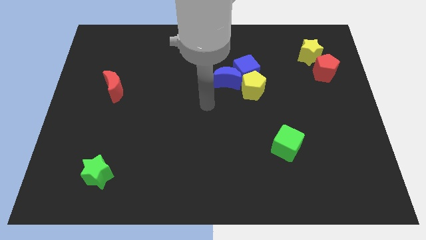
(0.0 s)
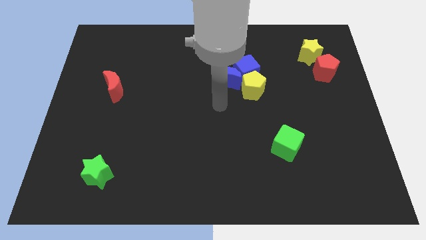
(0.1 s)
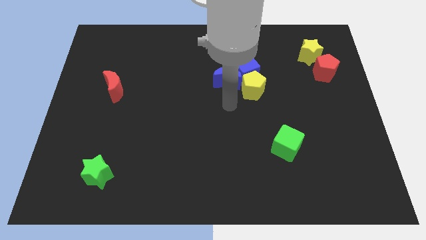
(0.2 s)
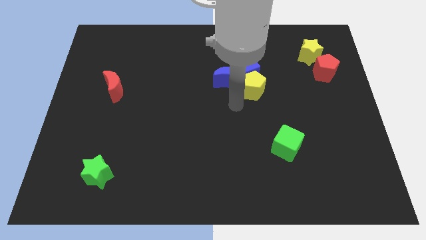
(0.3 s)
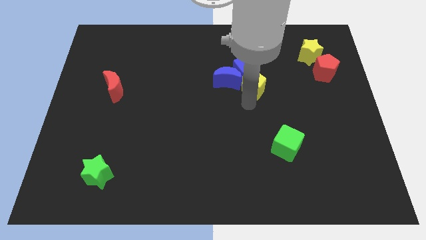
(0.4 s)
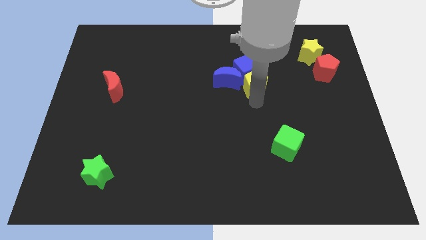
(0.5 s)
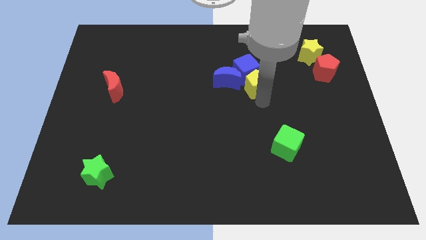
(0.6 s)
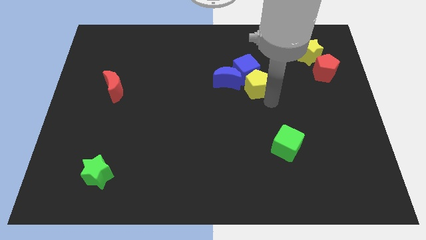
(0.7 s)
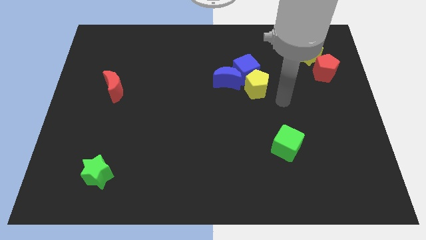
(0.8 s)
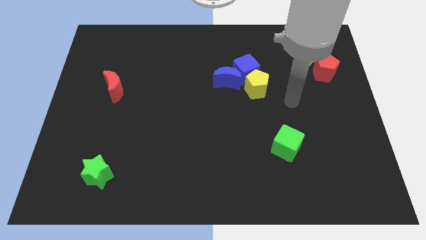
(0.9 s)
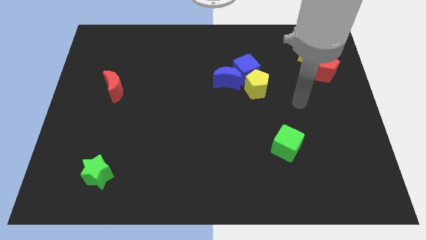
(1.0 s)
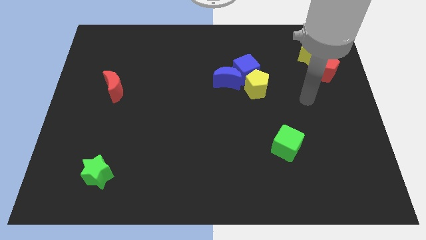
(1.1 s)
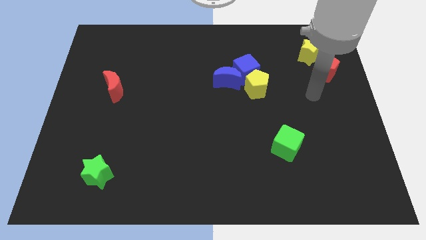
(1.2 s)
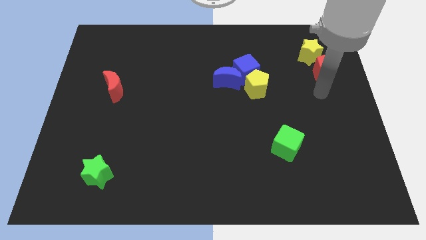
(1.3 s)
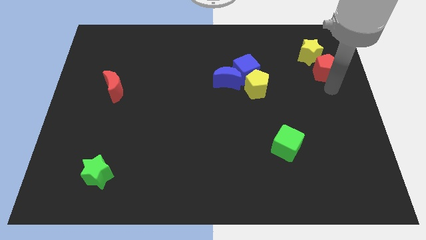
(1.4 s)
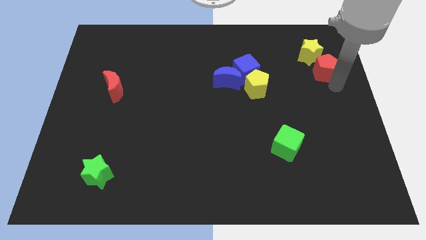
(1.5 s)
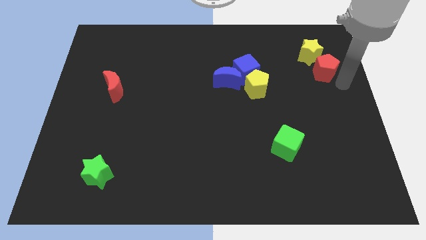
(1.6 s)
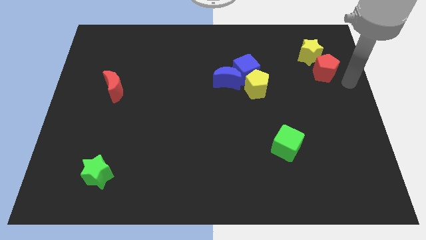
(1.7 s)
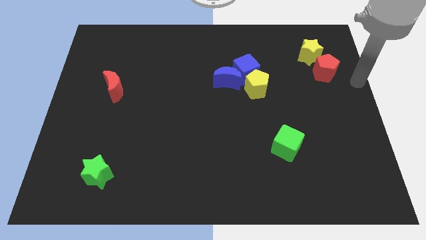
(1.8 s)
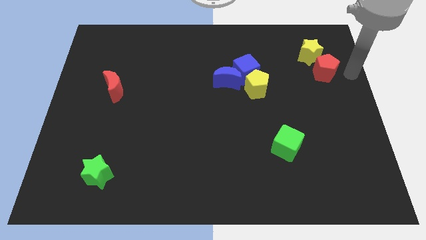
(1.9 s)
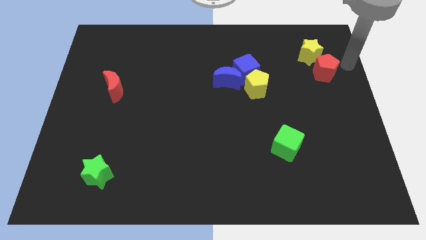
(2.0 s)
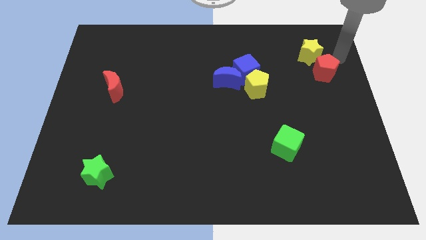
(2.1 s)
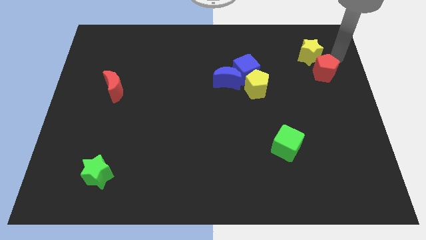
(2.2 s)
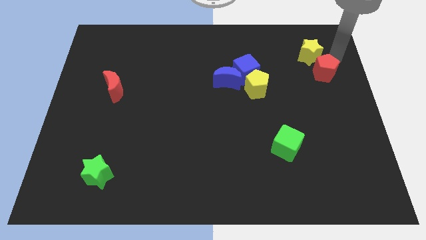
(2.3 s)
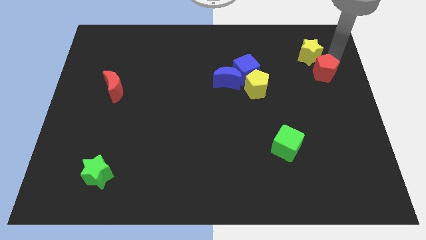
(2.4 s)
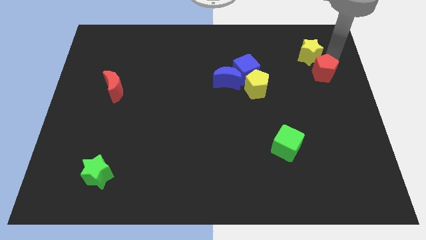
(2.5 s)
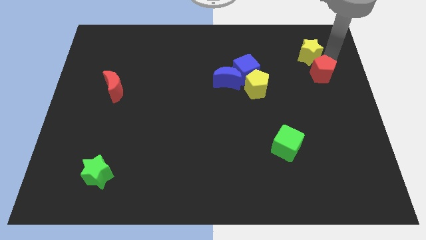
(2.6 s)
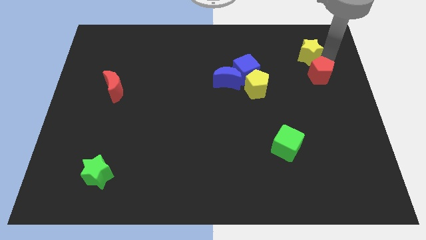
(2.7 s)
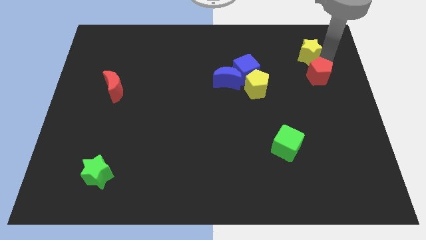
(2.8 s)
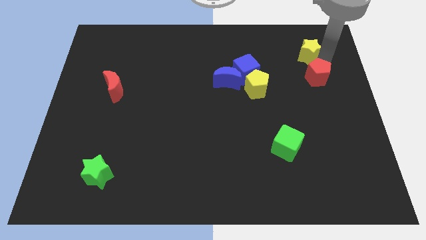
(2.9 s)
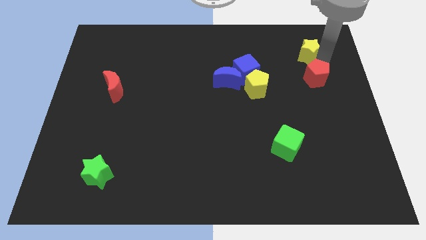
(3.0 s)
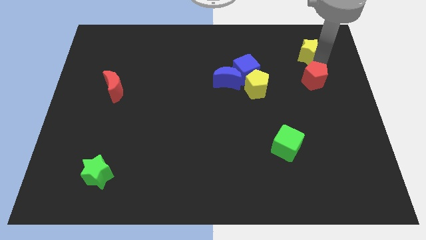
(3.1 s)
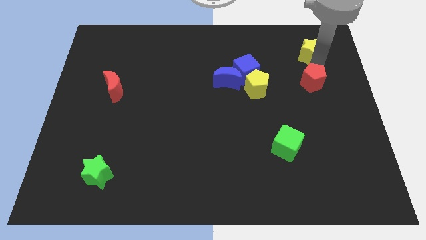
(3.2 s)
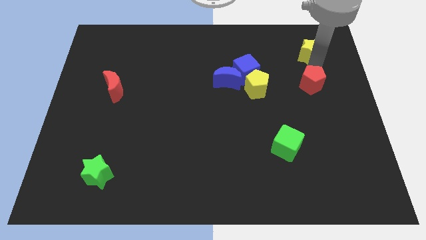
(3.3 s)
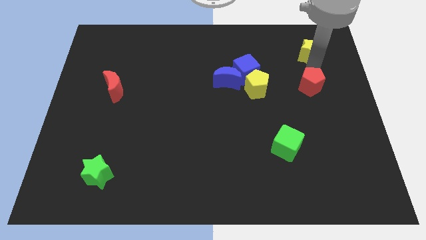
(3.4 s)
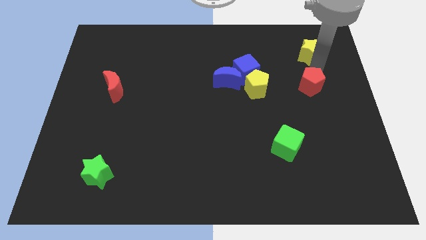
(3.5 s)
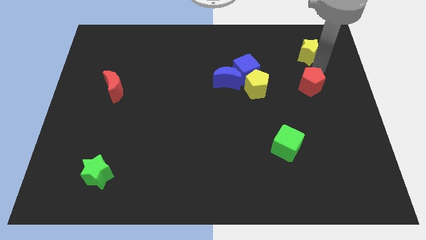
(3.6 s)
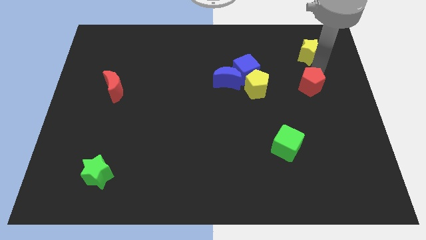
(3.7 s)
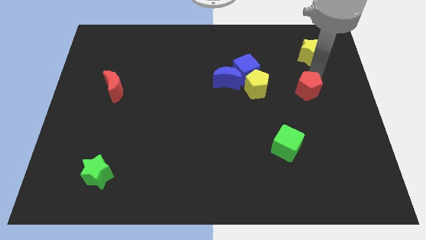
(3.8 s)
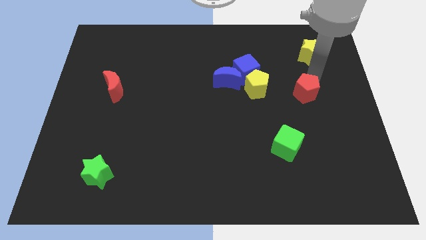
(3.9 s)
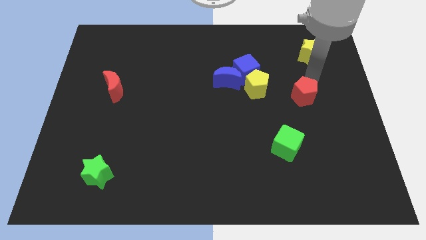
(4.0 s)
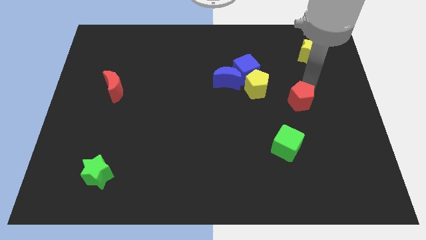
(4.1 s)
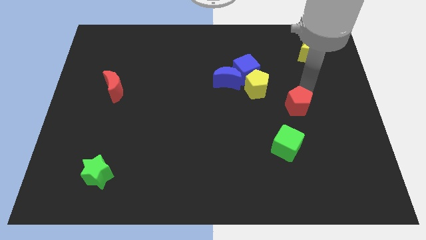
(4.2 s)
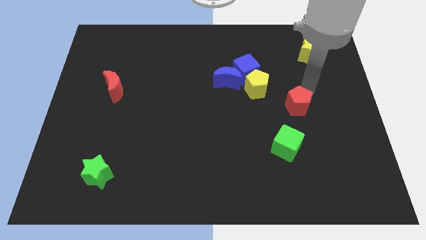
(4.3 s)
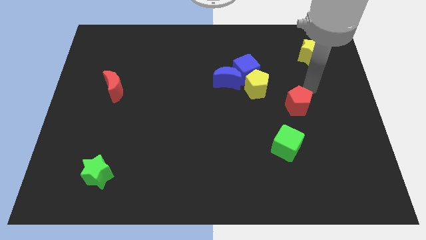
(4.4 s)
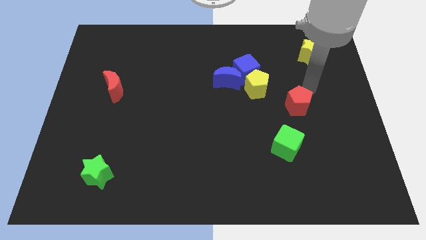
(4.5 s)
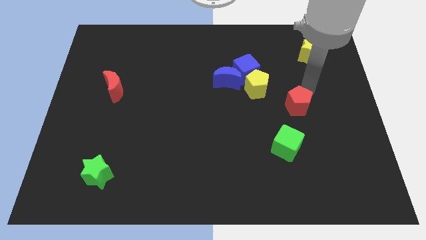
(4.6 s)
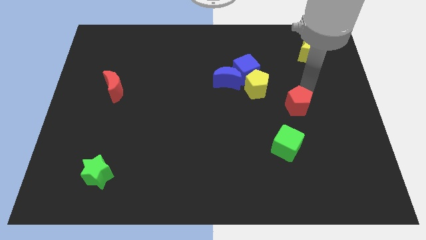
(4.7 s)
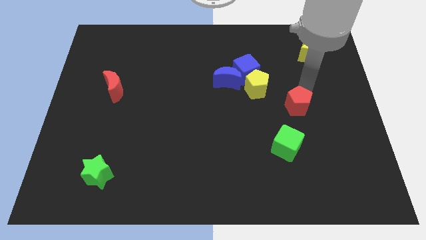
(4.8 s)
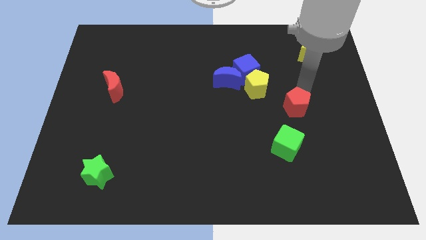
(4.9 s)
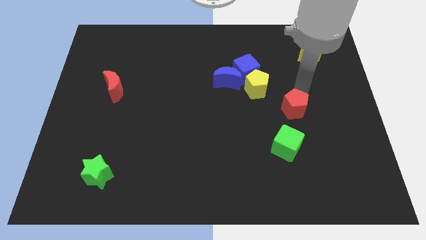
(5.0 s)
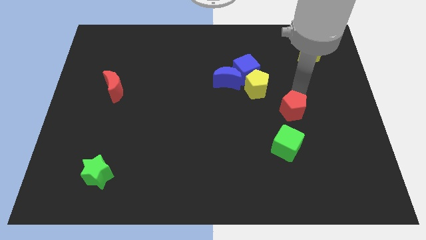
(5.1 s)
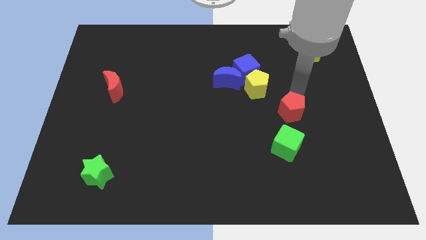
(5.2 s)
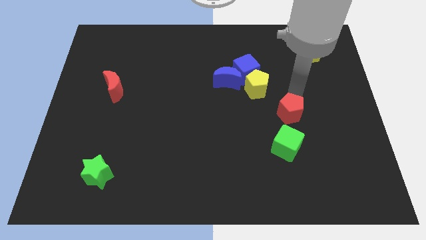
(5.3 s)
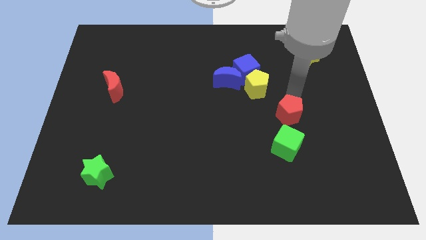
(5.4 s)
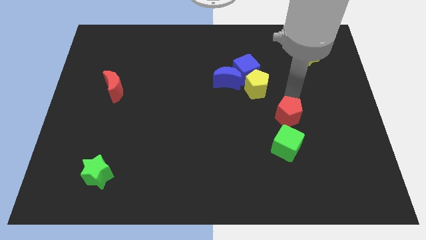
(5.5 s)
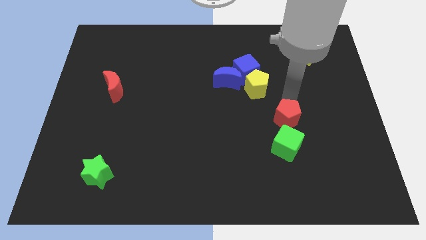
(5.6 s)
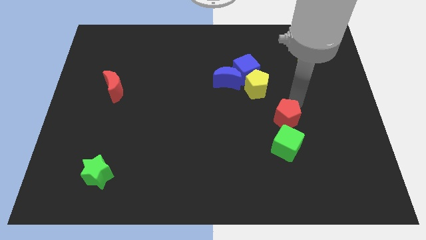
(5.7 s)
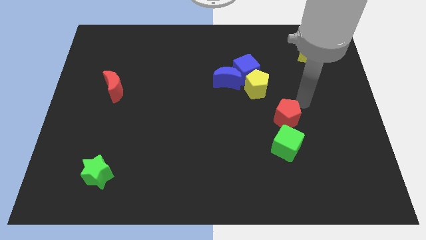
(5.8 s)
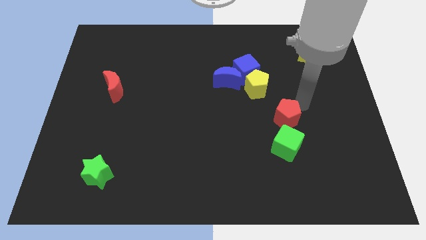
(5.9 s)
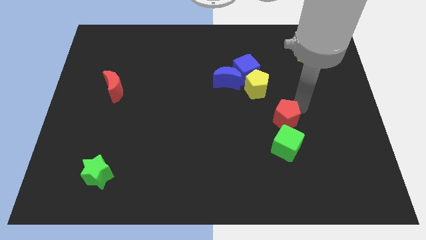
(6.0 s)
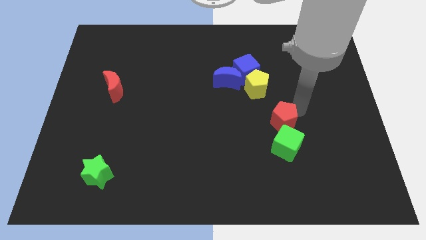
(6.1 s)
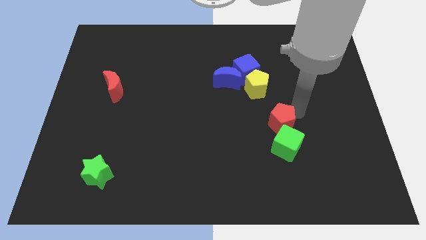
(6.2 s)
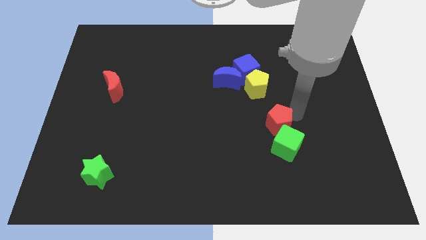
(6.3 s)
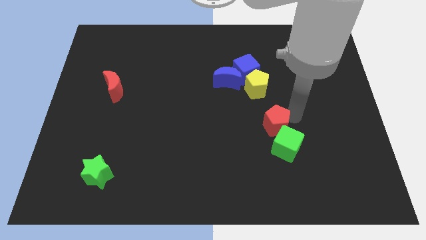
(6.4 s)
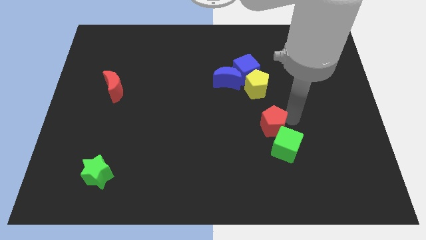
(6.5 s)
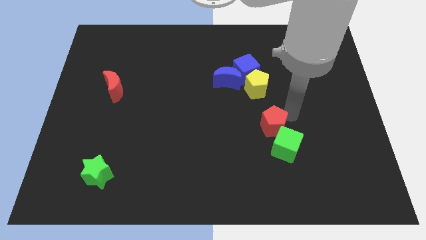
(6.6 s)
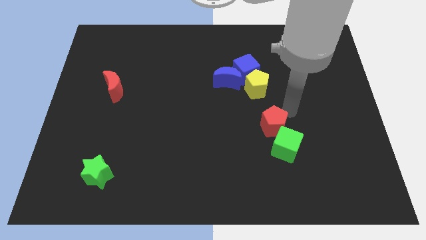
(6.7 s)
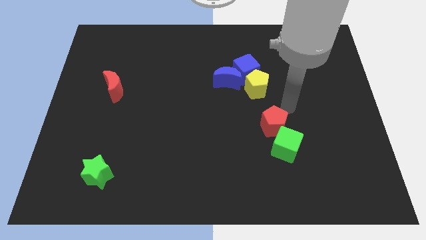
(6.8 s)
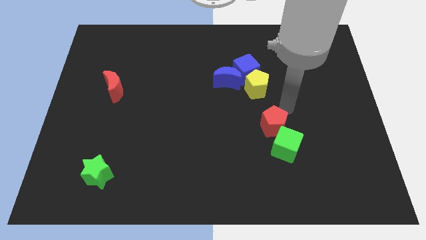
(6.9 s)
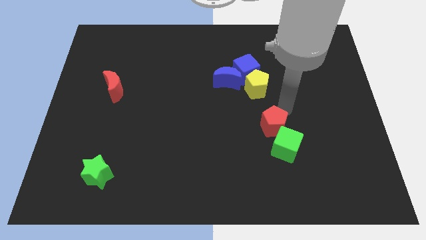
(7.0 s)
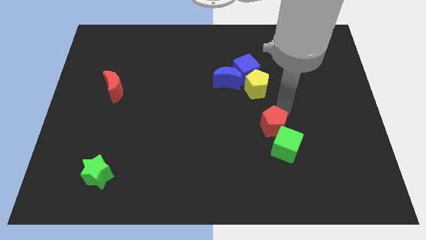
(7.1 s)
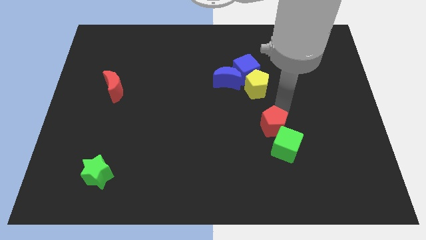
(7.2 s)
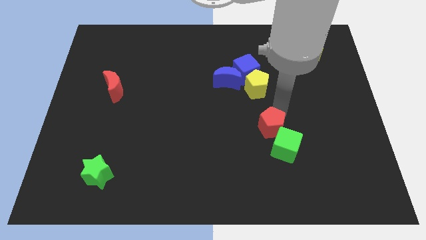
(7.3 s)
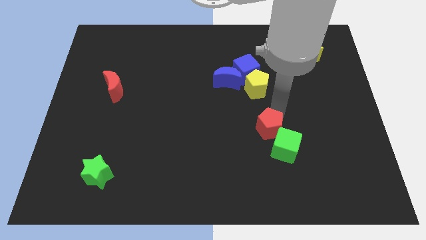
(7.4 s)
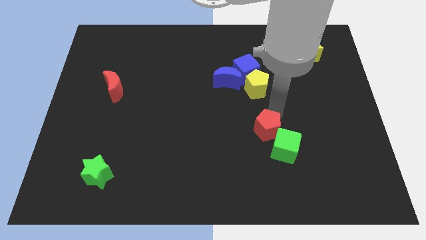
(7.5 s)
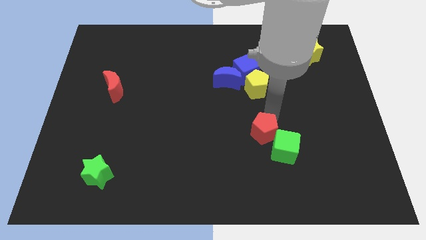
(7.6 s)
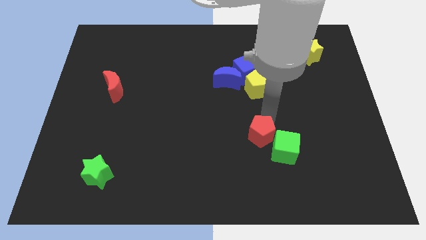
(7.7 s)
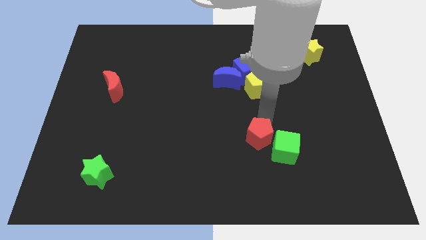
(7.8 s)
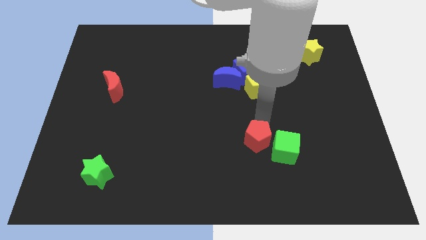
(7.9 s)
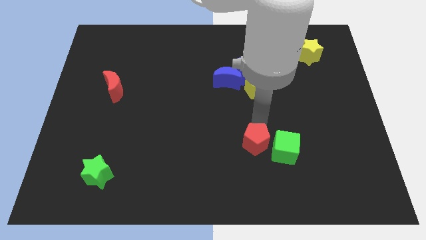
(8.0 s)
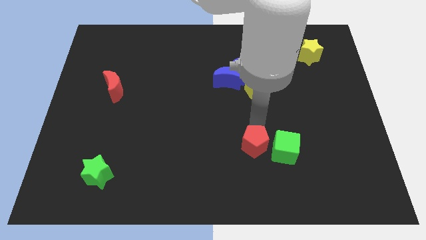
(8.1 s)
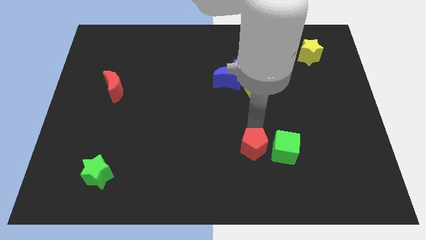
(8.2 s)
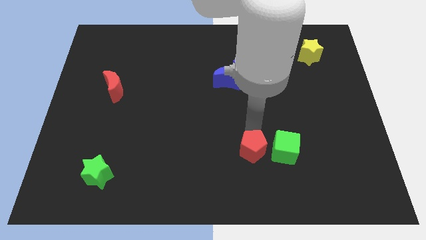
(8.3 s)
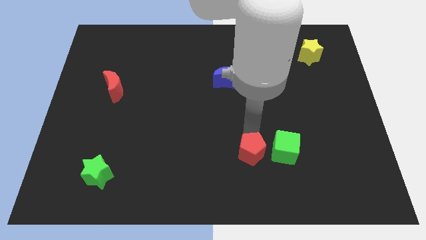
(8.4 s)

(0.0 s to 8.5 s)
put the red pentagon diagonally down and to the left of the green cube
